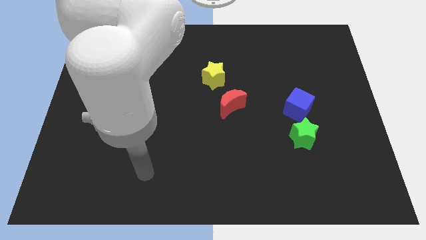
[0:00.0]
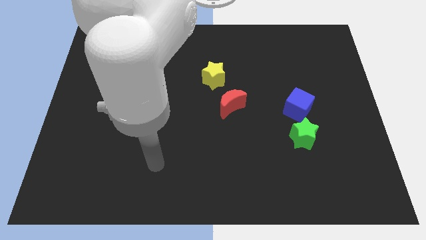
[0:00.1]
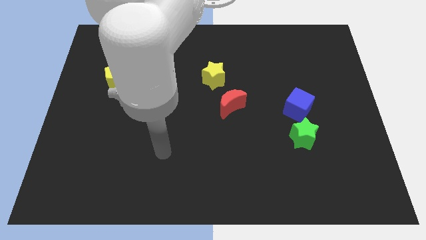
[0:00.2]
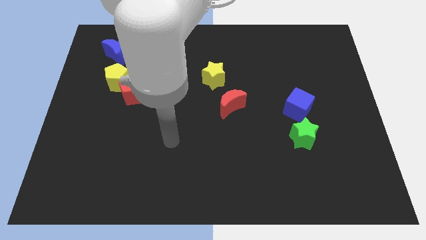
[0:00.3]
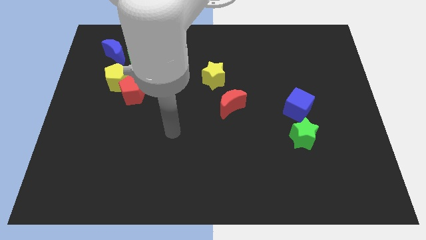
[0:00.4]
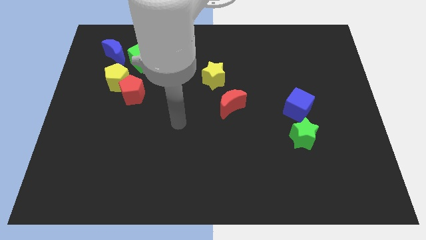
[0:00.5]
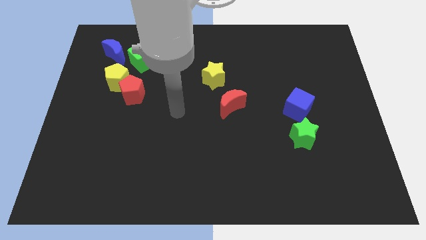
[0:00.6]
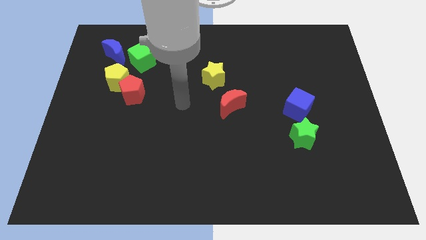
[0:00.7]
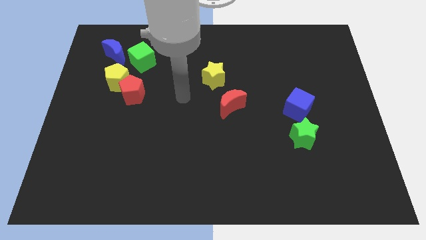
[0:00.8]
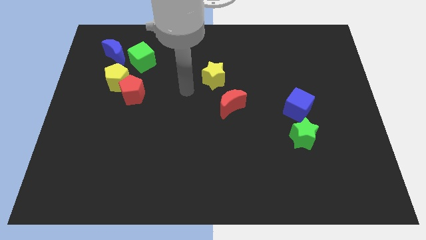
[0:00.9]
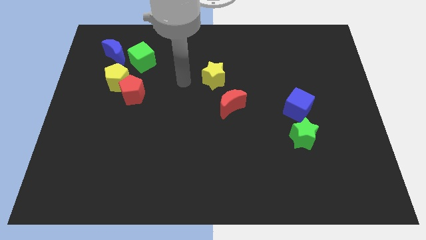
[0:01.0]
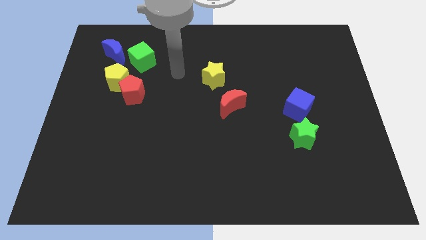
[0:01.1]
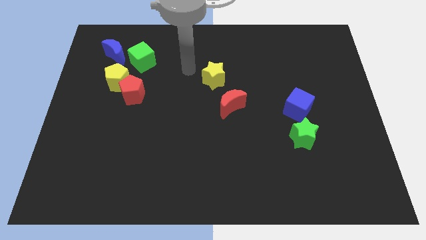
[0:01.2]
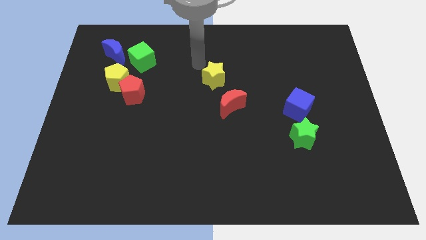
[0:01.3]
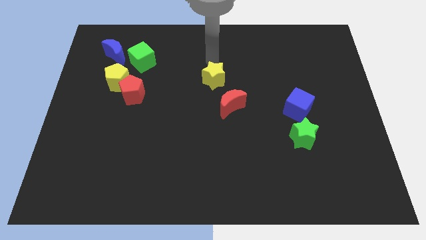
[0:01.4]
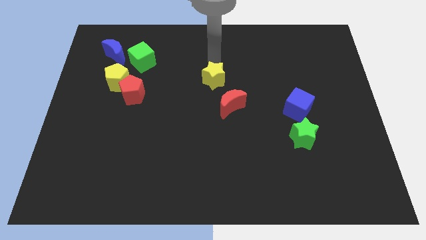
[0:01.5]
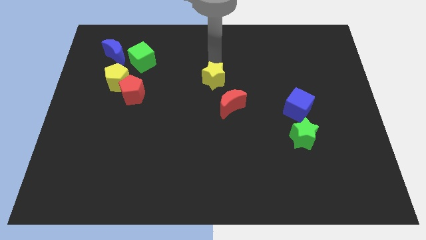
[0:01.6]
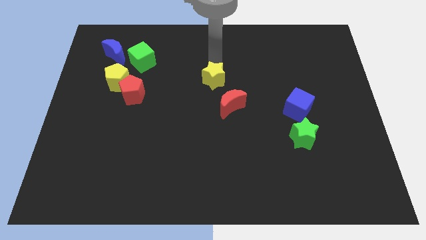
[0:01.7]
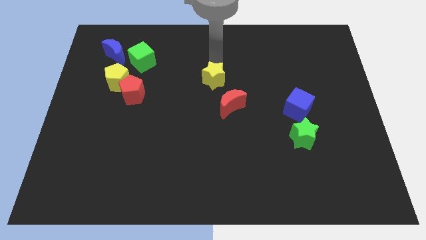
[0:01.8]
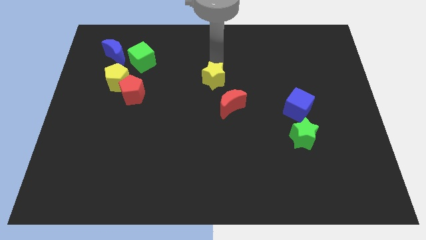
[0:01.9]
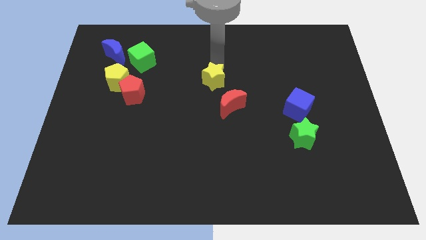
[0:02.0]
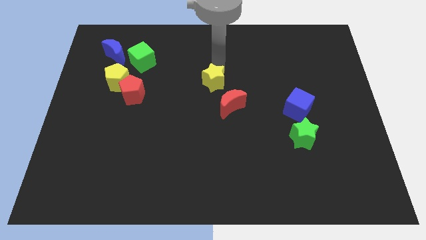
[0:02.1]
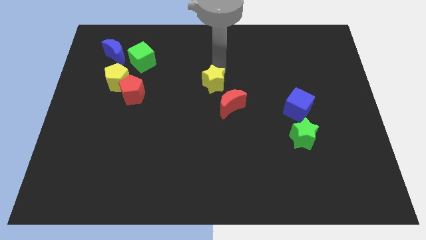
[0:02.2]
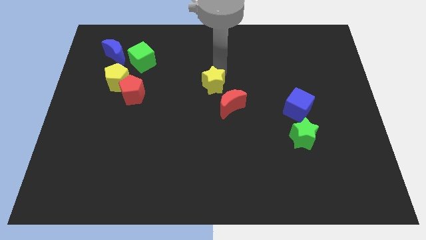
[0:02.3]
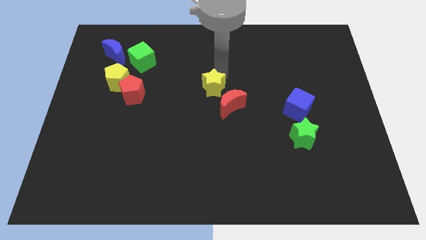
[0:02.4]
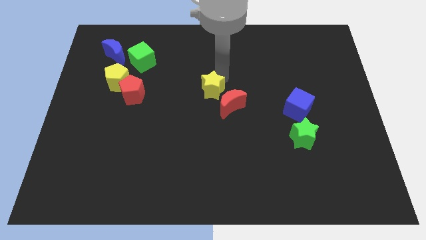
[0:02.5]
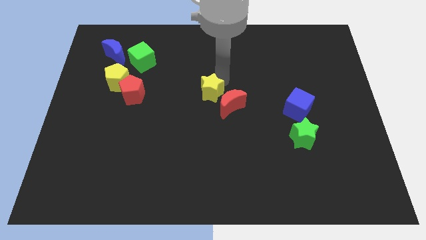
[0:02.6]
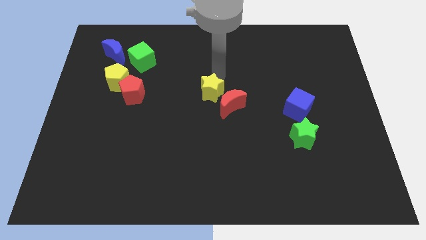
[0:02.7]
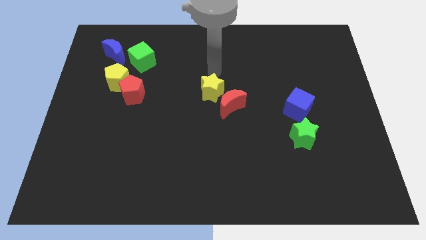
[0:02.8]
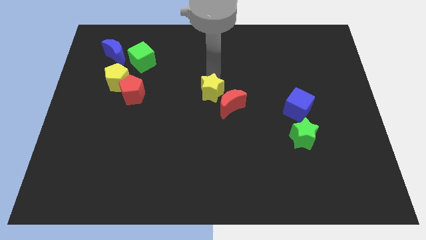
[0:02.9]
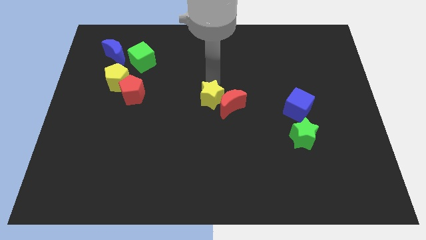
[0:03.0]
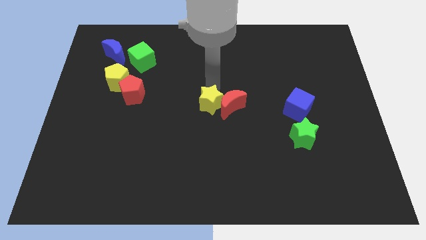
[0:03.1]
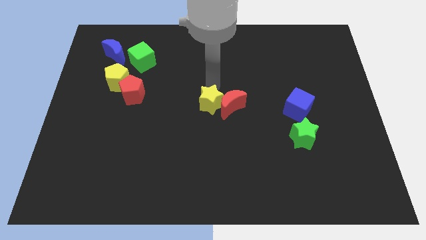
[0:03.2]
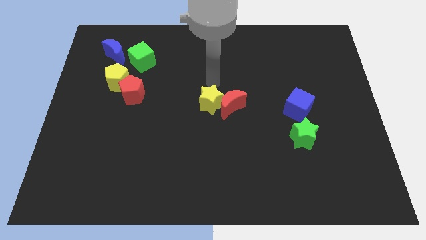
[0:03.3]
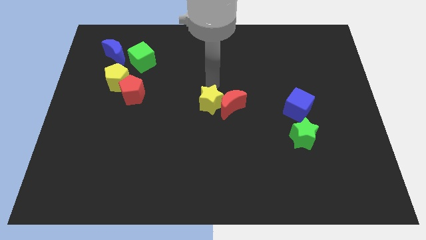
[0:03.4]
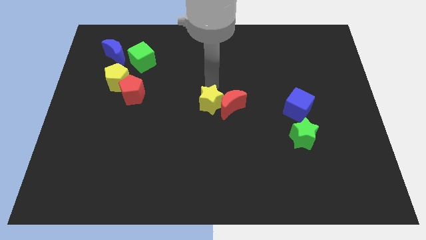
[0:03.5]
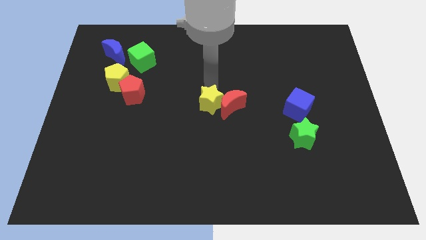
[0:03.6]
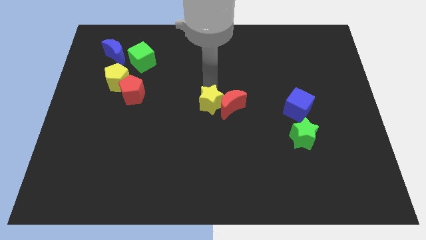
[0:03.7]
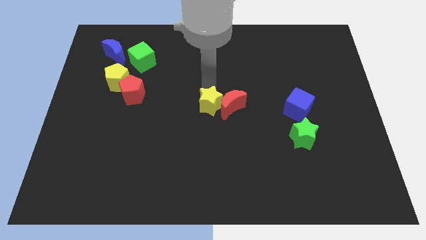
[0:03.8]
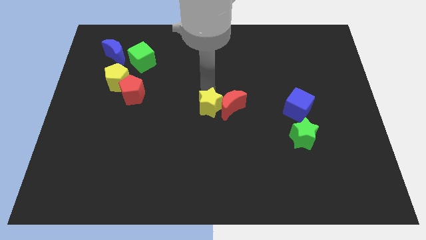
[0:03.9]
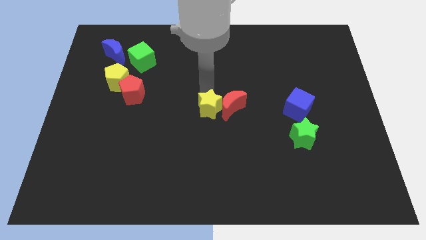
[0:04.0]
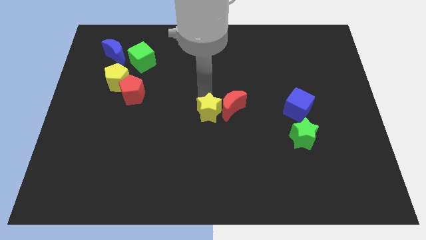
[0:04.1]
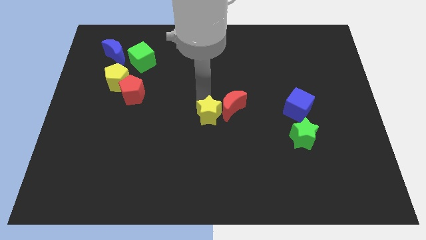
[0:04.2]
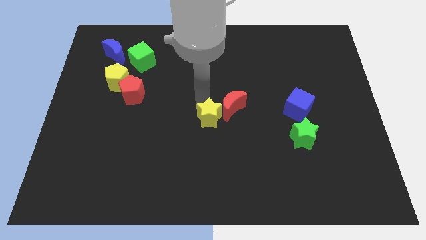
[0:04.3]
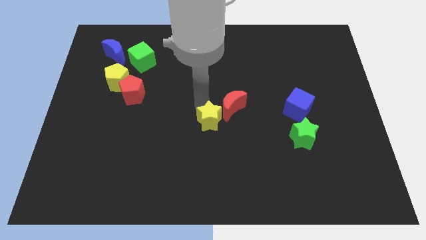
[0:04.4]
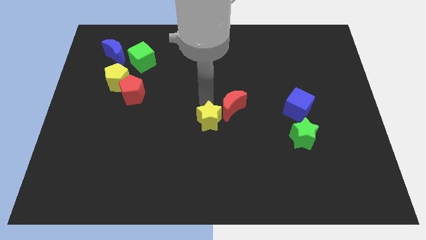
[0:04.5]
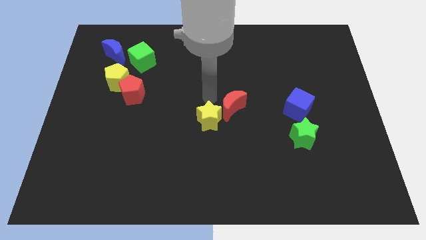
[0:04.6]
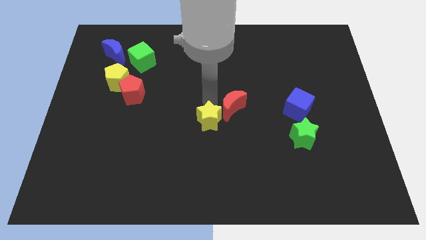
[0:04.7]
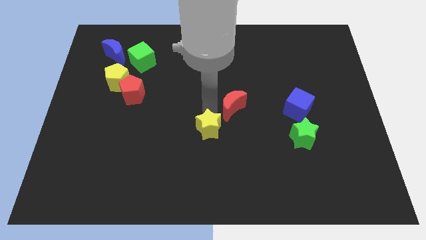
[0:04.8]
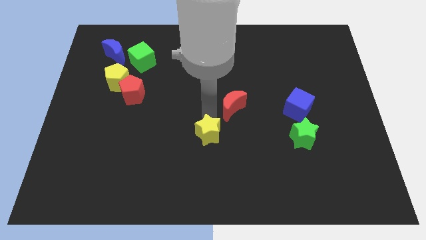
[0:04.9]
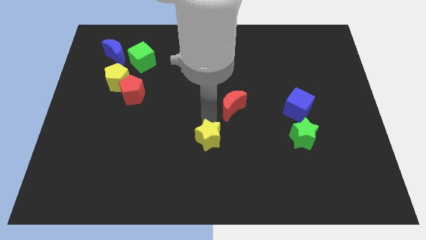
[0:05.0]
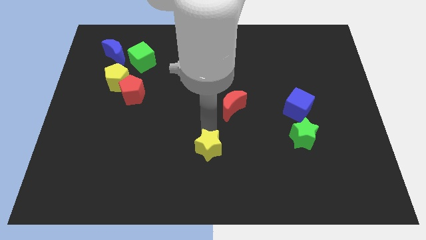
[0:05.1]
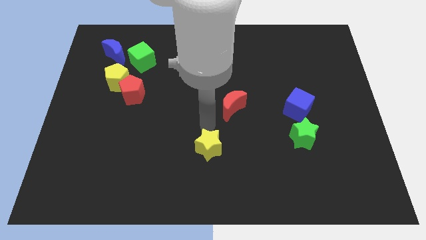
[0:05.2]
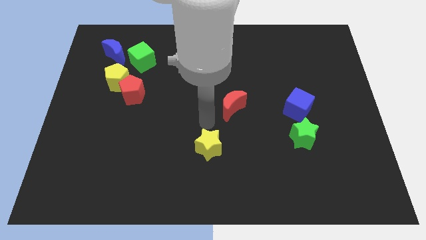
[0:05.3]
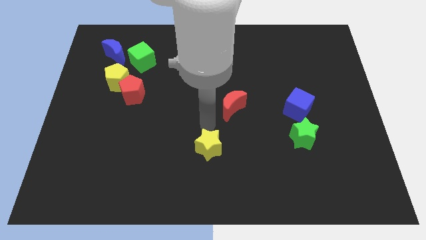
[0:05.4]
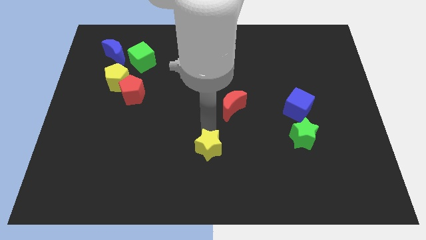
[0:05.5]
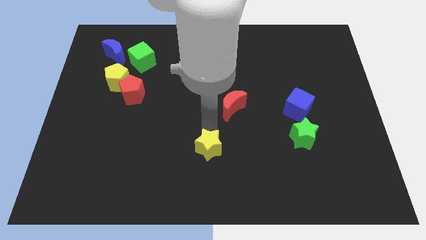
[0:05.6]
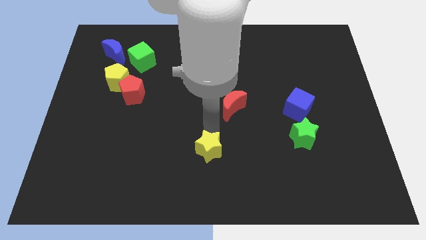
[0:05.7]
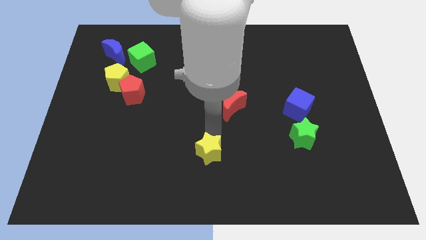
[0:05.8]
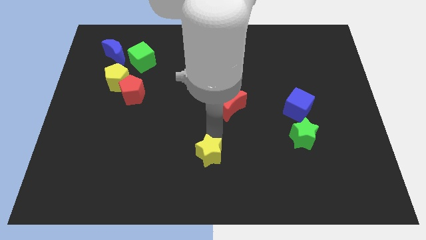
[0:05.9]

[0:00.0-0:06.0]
slide the yellow star to the bottom
